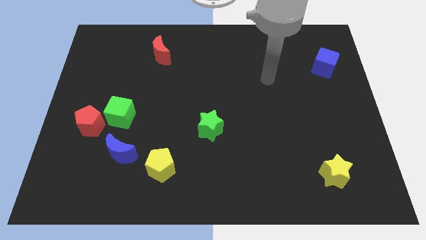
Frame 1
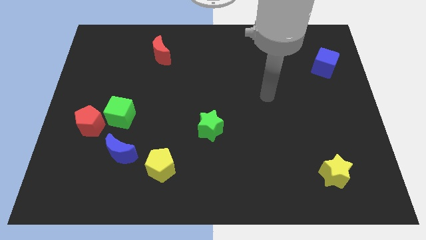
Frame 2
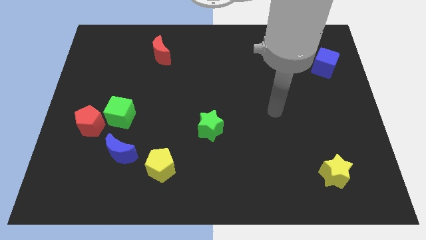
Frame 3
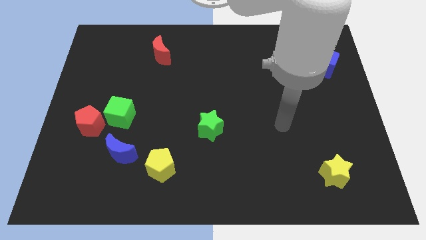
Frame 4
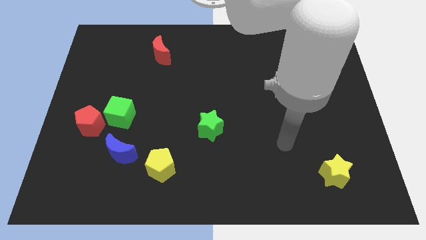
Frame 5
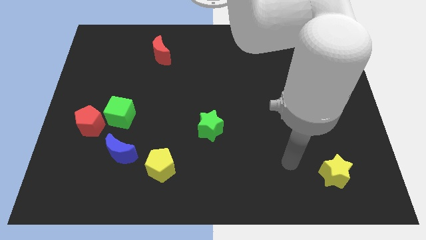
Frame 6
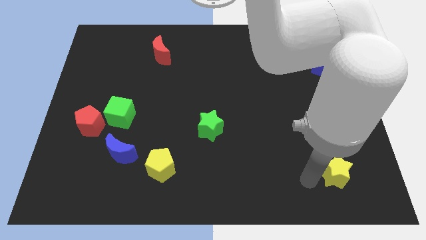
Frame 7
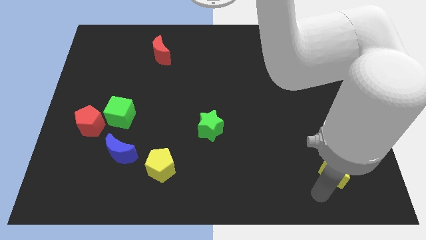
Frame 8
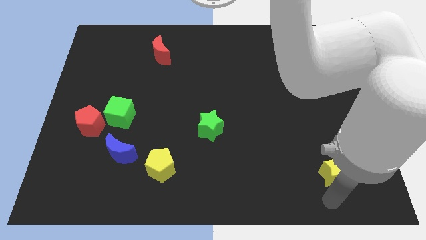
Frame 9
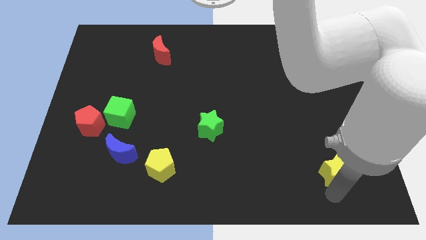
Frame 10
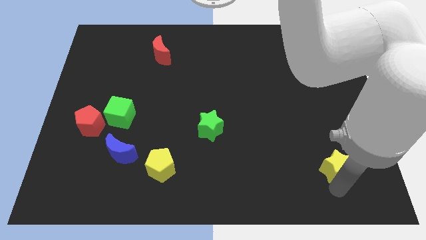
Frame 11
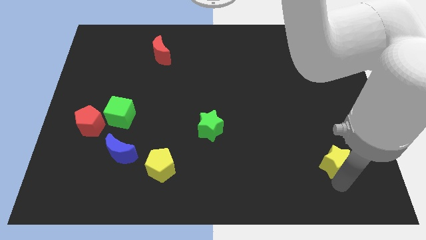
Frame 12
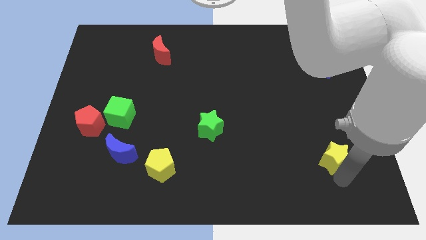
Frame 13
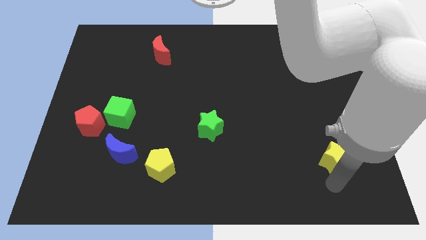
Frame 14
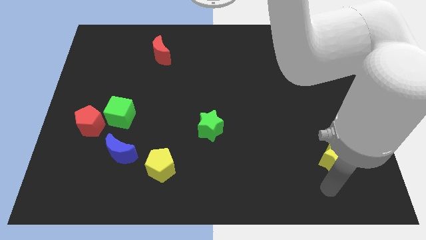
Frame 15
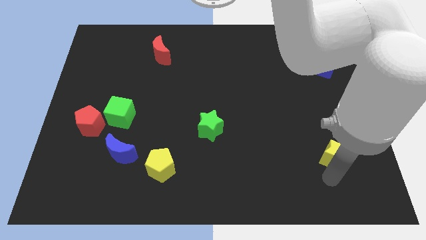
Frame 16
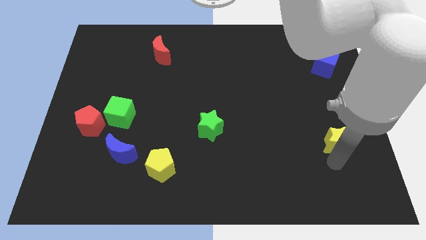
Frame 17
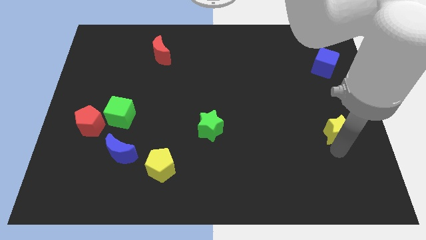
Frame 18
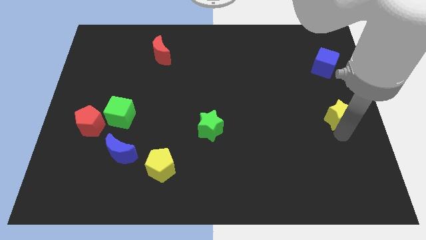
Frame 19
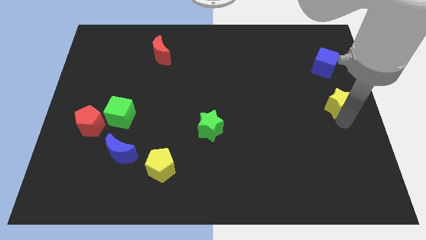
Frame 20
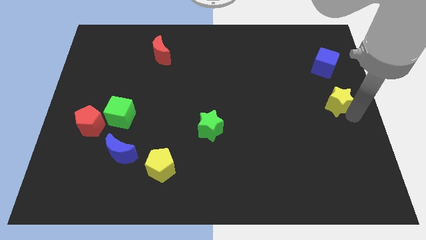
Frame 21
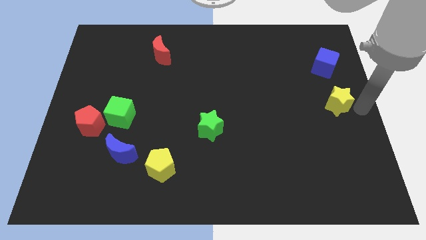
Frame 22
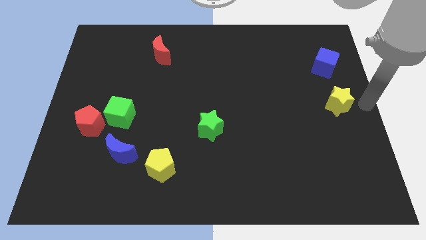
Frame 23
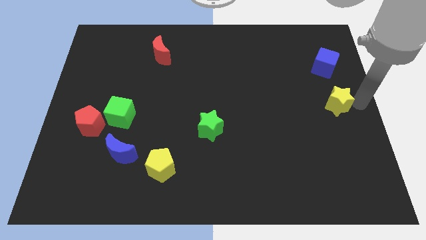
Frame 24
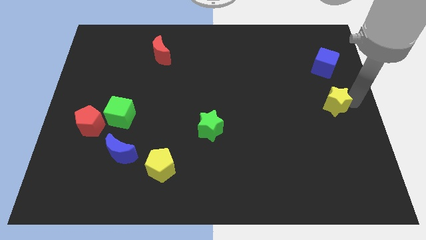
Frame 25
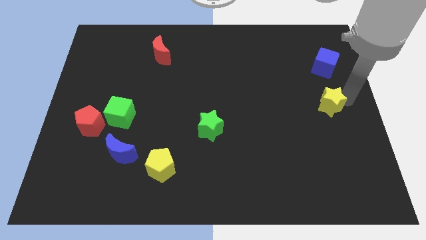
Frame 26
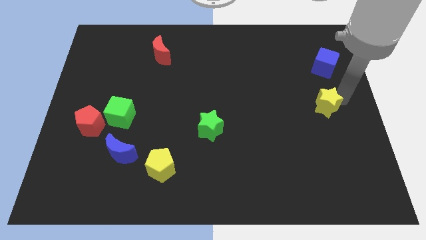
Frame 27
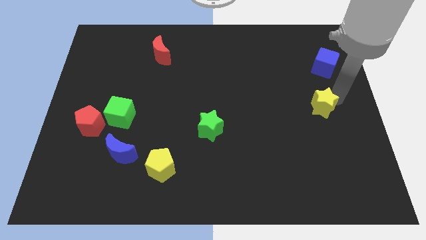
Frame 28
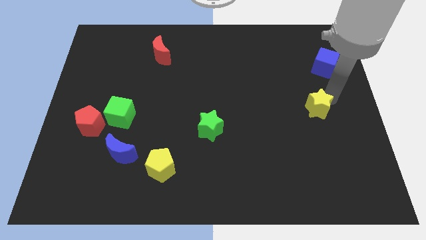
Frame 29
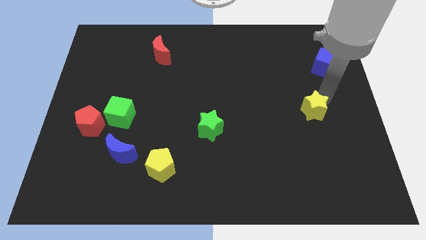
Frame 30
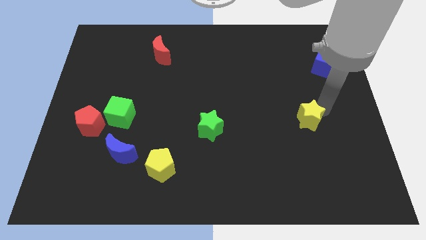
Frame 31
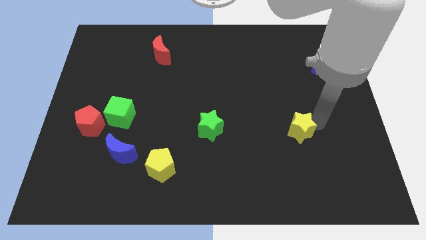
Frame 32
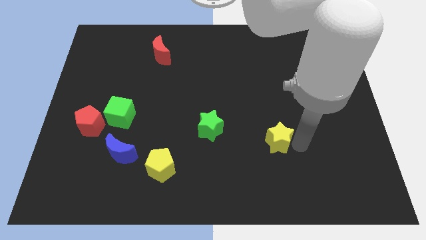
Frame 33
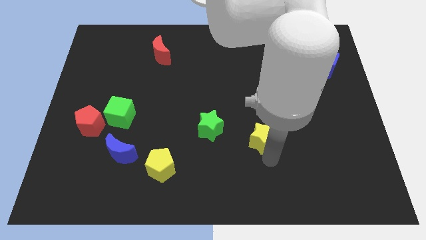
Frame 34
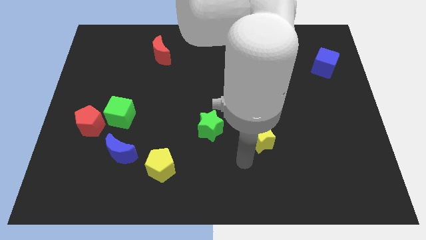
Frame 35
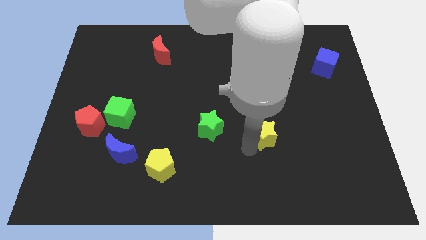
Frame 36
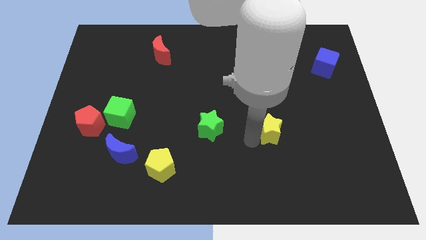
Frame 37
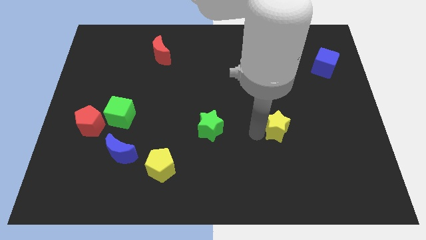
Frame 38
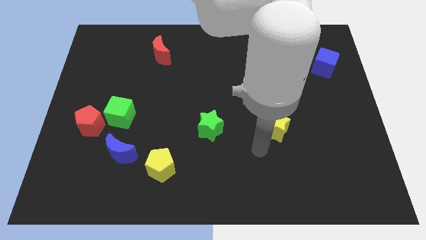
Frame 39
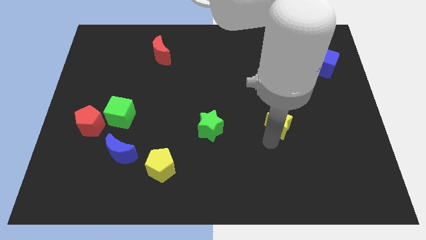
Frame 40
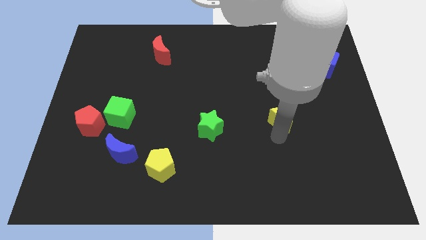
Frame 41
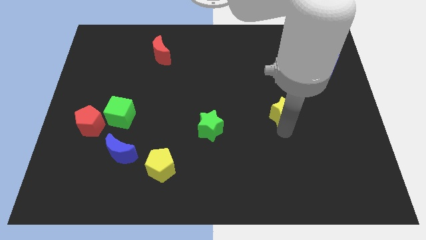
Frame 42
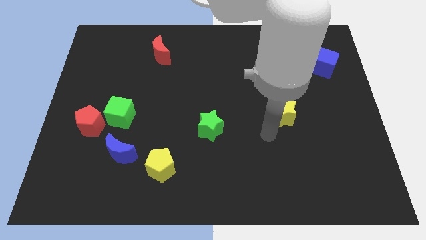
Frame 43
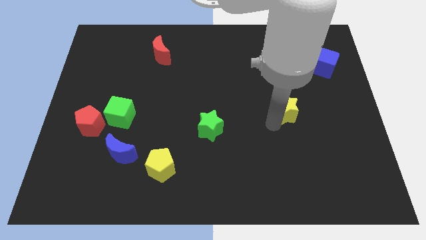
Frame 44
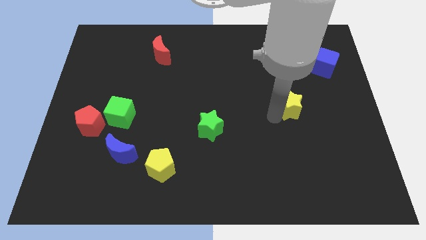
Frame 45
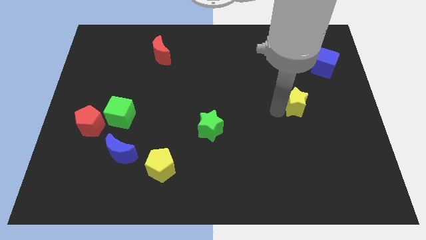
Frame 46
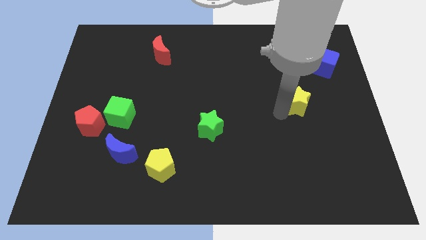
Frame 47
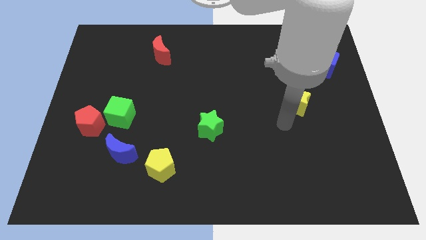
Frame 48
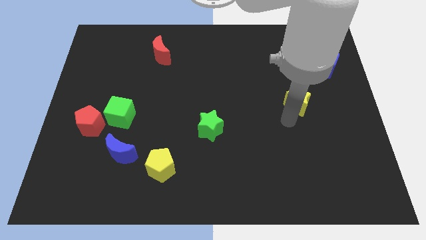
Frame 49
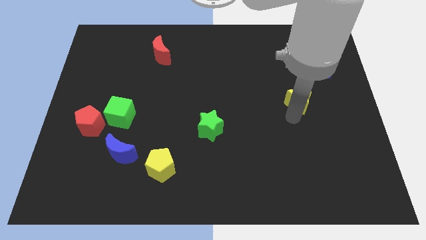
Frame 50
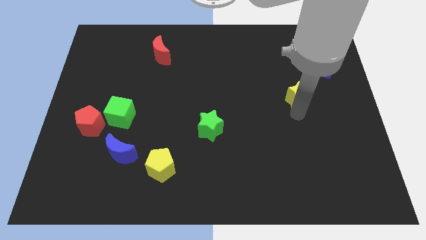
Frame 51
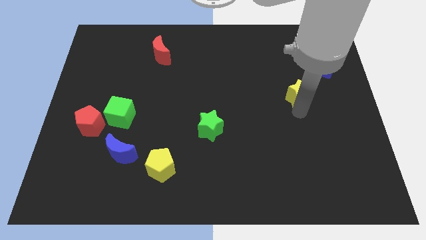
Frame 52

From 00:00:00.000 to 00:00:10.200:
slide the yellow star up

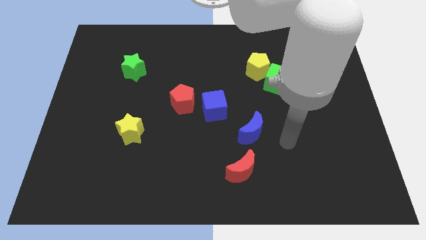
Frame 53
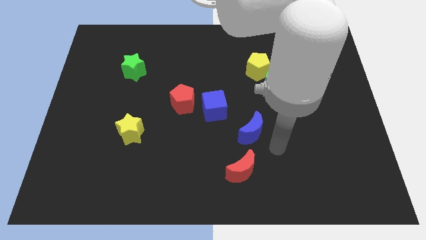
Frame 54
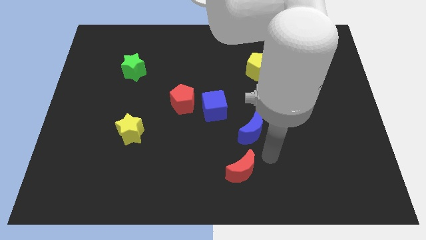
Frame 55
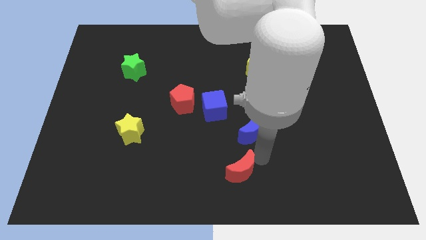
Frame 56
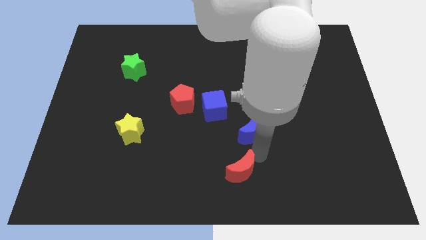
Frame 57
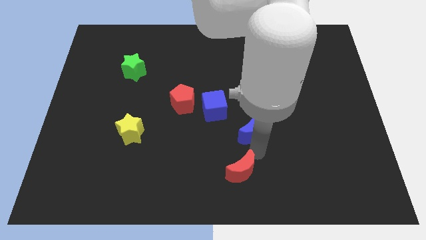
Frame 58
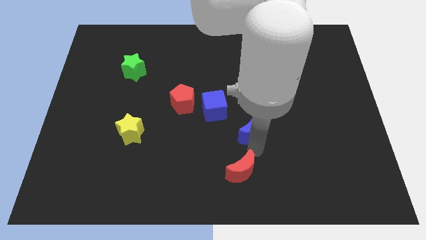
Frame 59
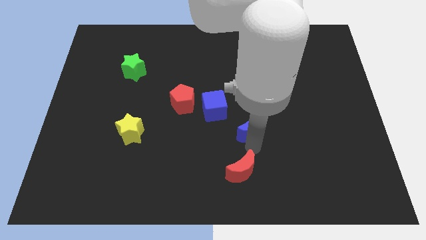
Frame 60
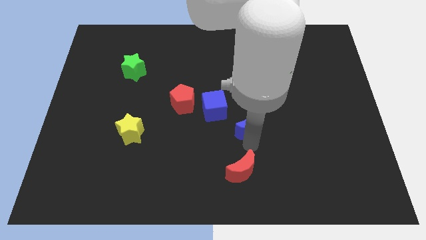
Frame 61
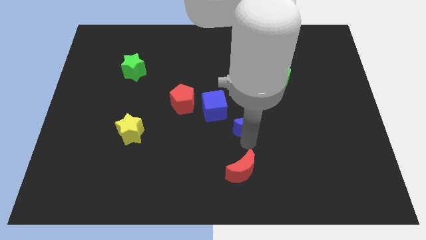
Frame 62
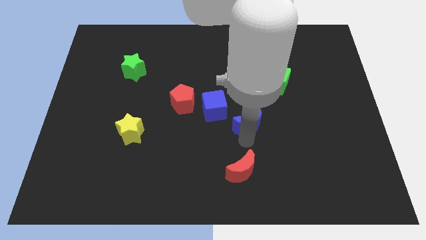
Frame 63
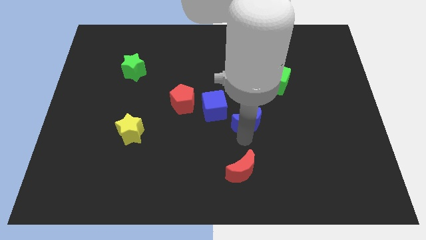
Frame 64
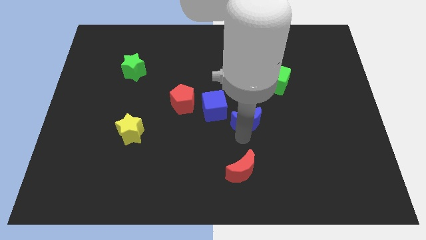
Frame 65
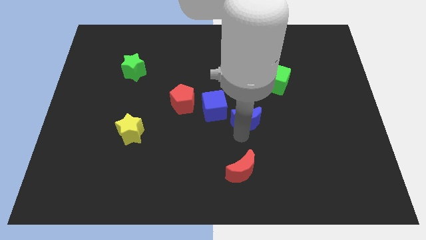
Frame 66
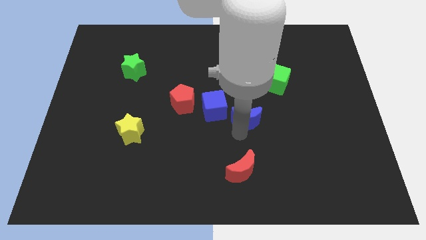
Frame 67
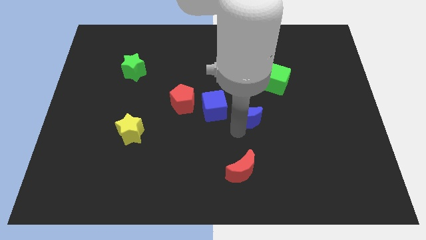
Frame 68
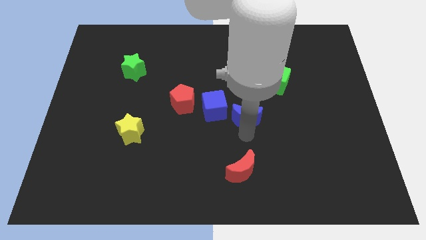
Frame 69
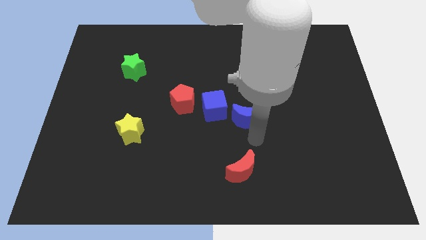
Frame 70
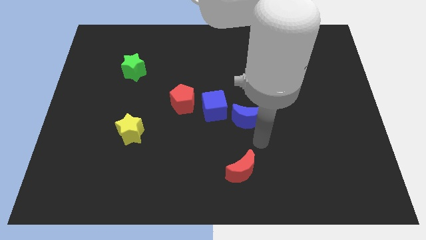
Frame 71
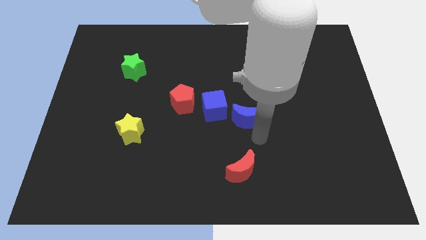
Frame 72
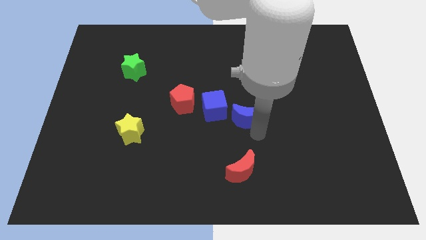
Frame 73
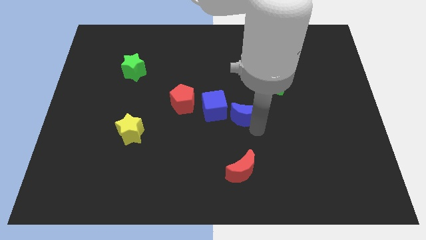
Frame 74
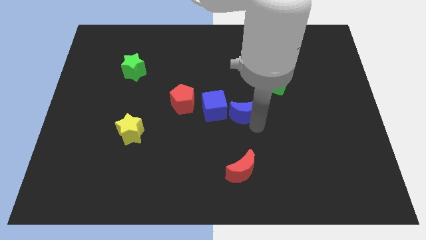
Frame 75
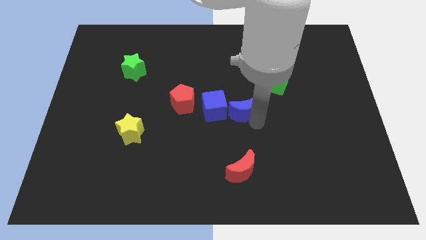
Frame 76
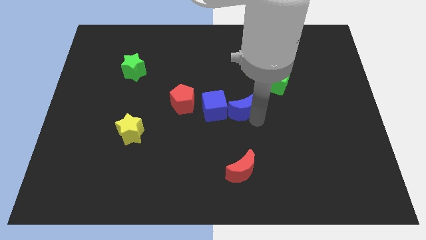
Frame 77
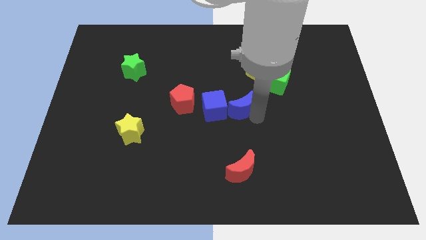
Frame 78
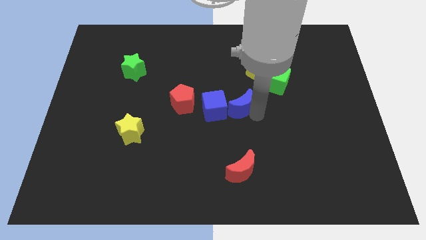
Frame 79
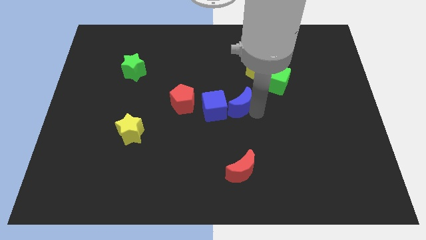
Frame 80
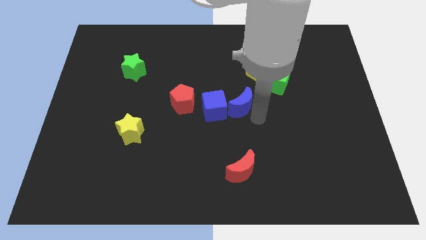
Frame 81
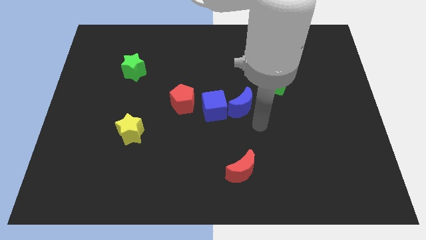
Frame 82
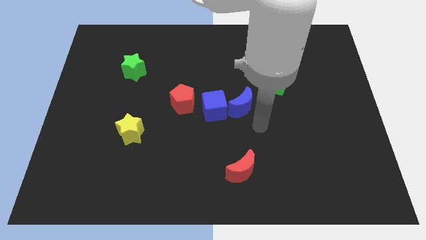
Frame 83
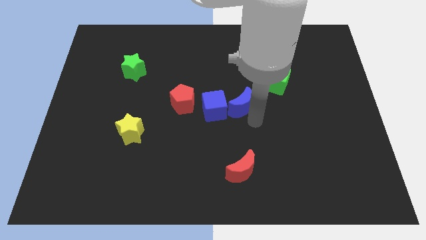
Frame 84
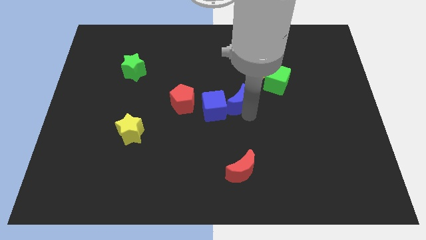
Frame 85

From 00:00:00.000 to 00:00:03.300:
slightly move the blue moon up and left
